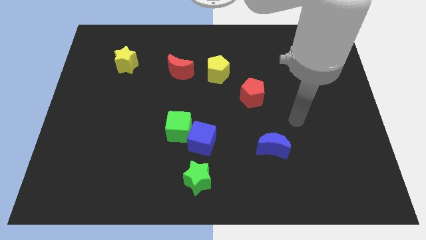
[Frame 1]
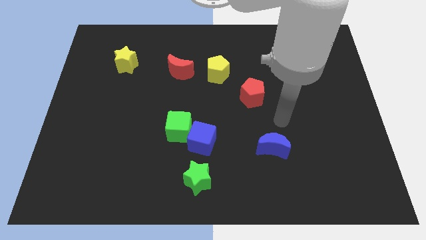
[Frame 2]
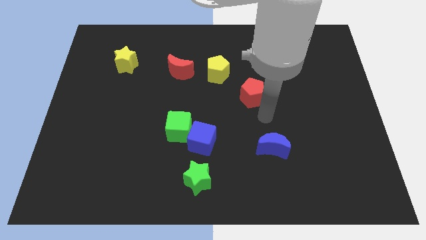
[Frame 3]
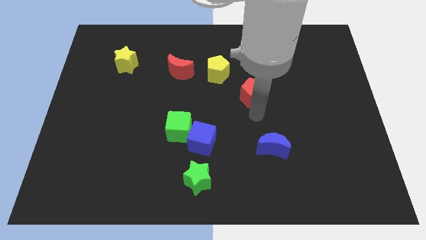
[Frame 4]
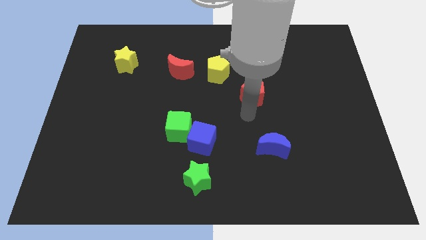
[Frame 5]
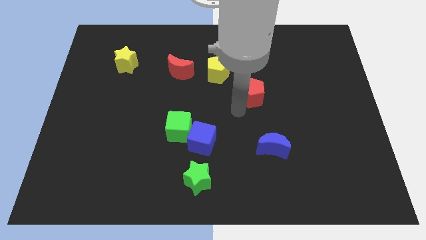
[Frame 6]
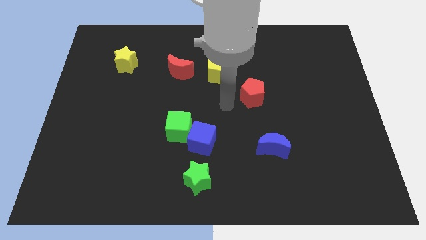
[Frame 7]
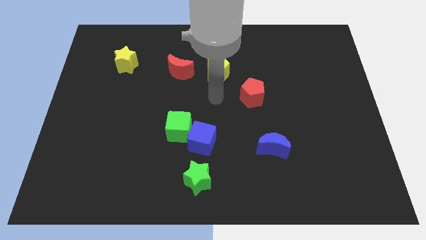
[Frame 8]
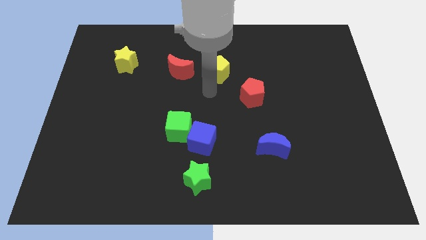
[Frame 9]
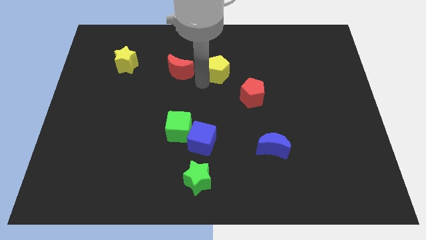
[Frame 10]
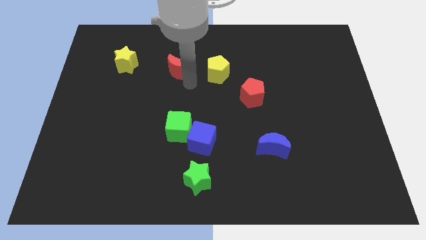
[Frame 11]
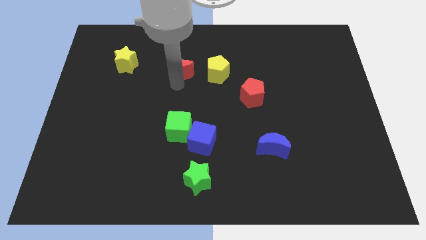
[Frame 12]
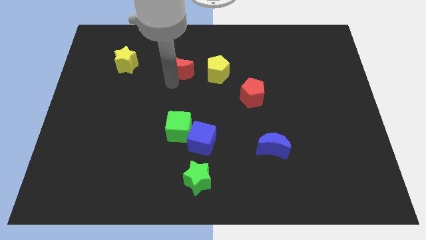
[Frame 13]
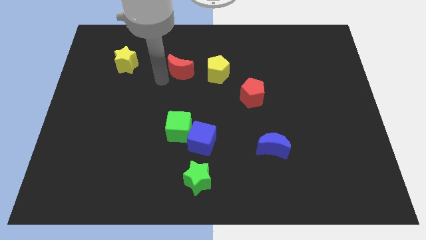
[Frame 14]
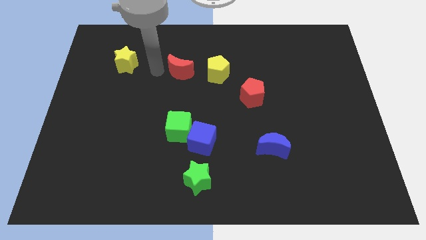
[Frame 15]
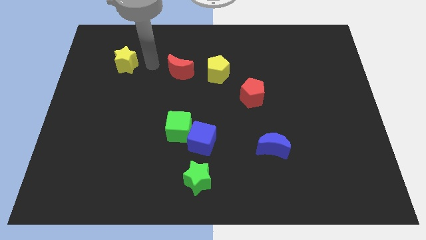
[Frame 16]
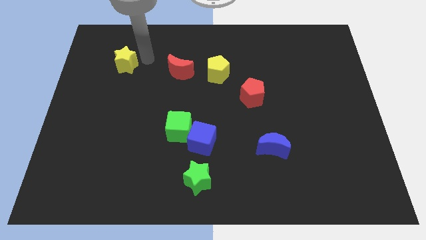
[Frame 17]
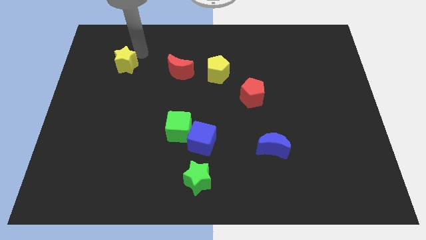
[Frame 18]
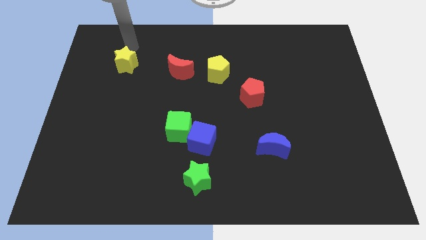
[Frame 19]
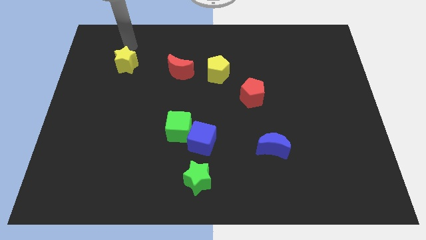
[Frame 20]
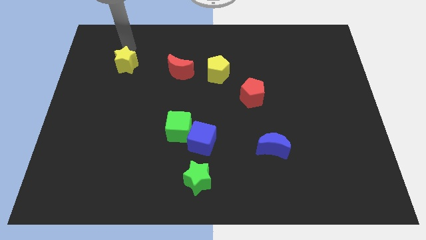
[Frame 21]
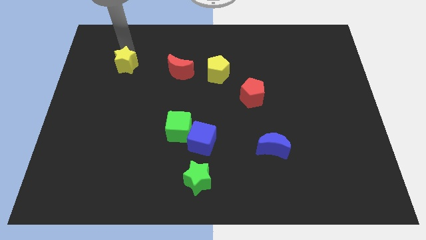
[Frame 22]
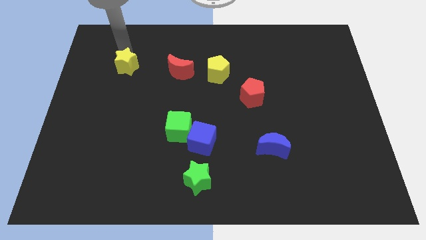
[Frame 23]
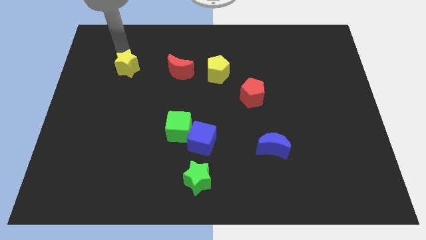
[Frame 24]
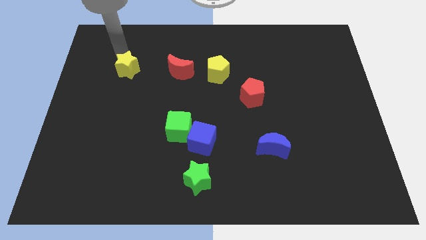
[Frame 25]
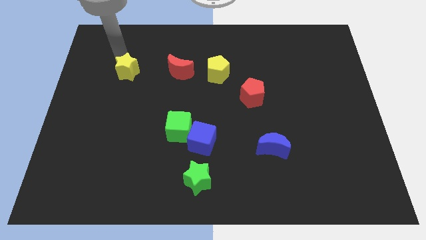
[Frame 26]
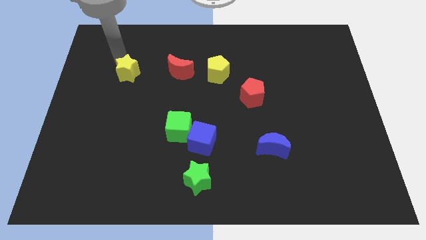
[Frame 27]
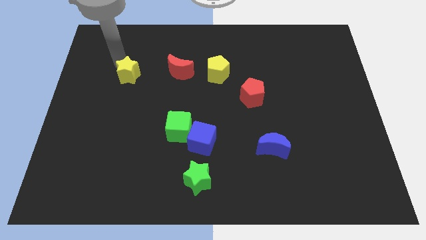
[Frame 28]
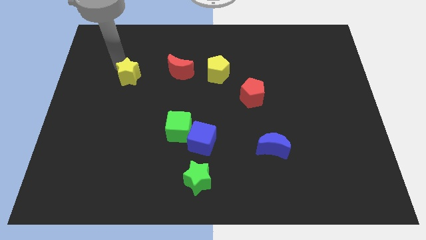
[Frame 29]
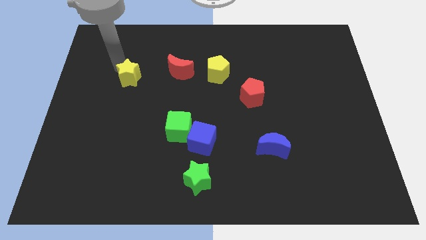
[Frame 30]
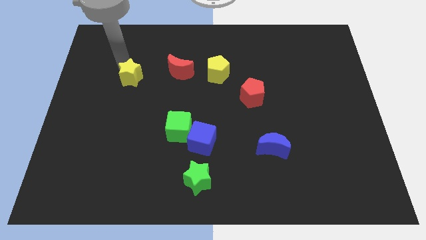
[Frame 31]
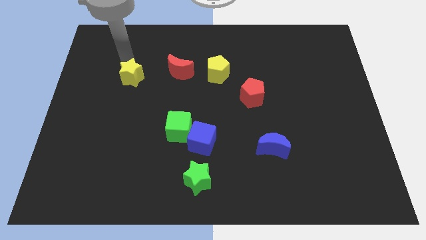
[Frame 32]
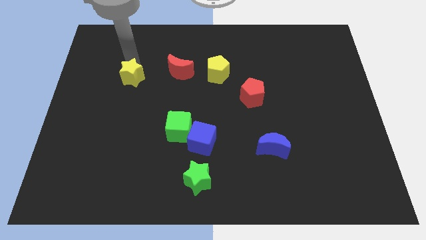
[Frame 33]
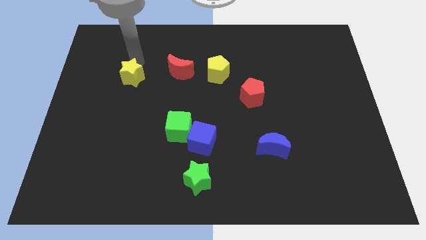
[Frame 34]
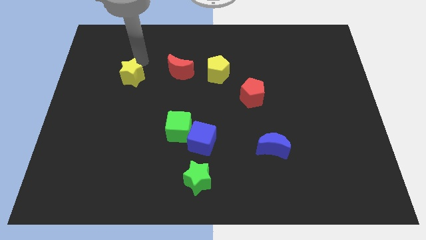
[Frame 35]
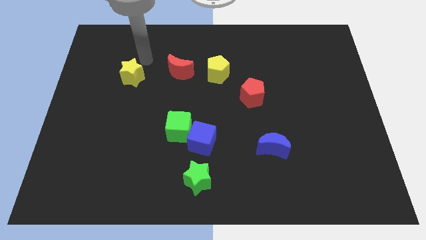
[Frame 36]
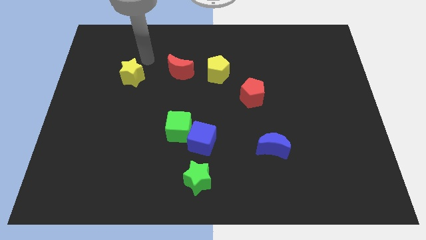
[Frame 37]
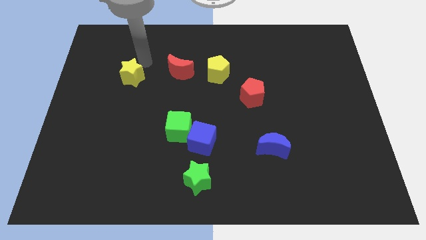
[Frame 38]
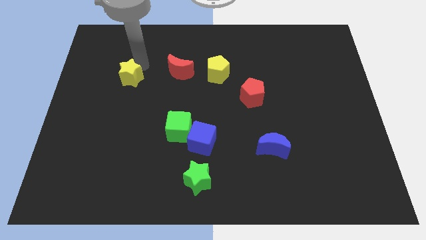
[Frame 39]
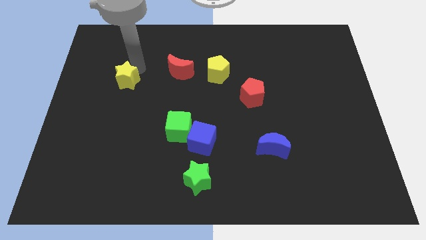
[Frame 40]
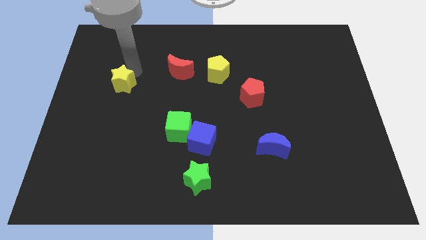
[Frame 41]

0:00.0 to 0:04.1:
slightly push the yellow star down

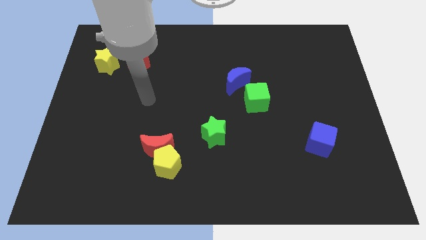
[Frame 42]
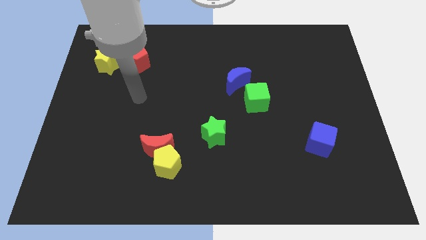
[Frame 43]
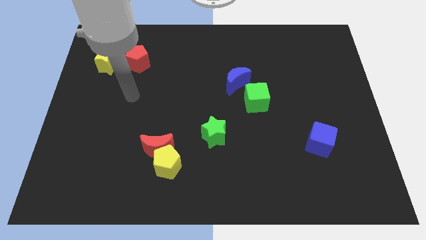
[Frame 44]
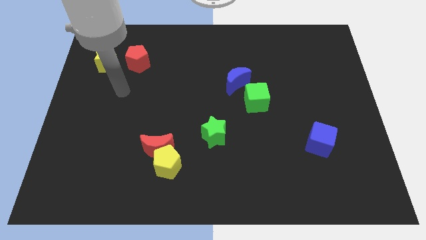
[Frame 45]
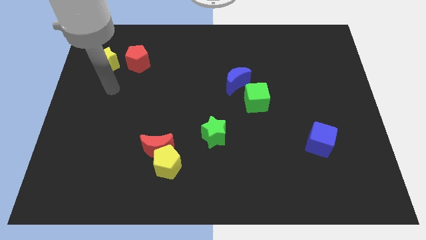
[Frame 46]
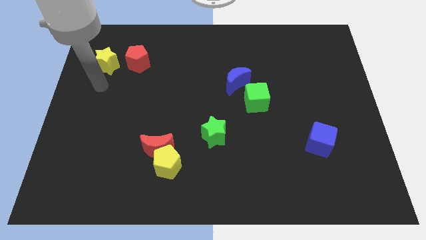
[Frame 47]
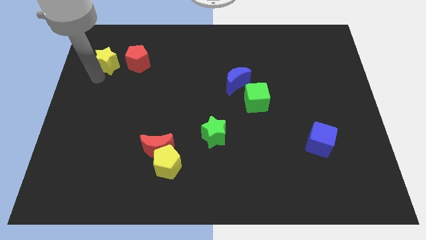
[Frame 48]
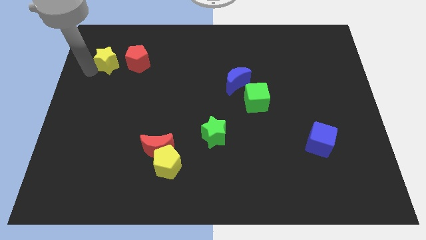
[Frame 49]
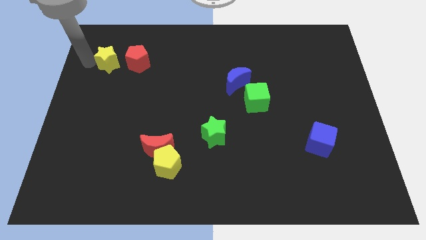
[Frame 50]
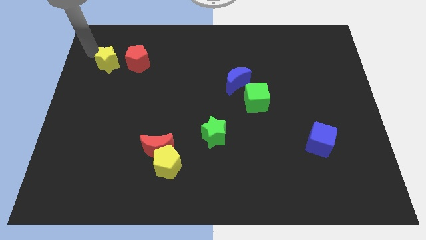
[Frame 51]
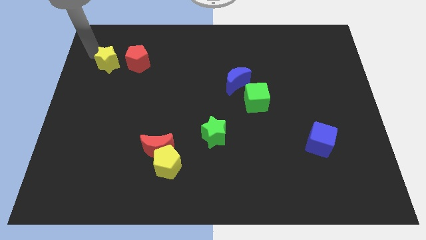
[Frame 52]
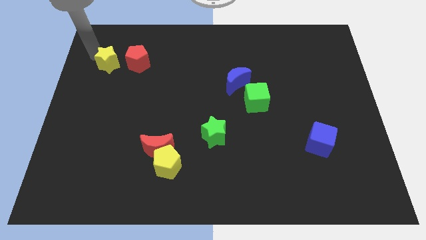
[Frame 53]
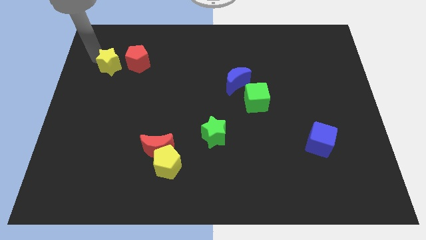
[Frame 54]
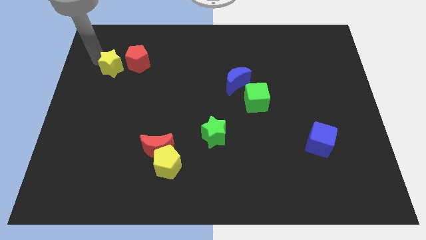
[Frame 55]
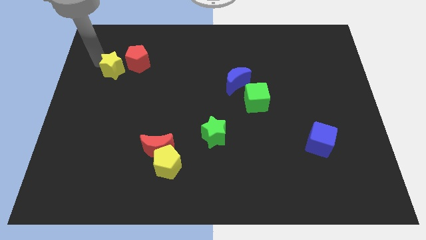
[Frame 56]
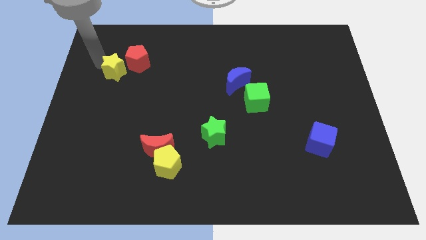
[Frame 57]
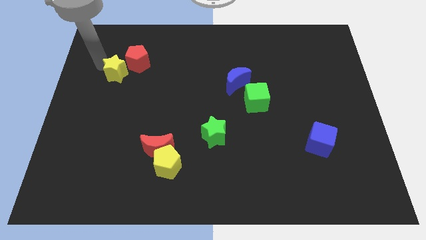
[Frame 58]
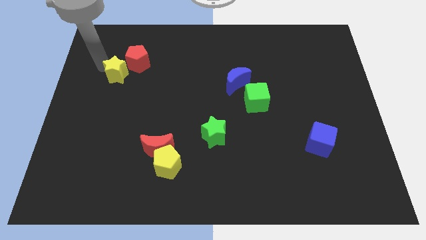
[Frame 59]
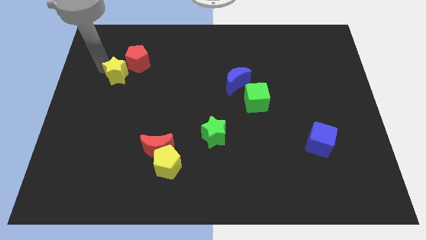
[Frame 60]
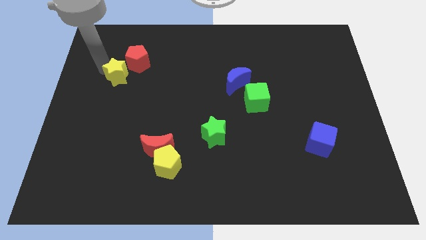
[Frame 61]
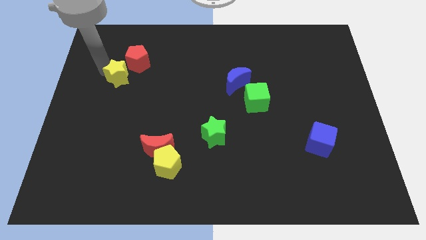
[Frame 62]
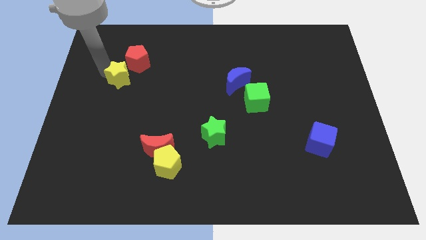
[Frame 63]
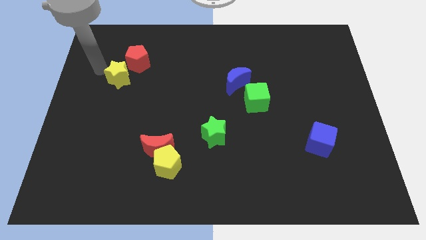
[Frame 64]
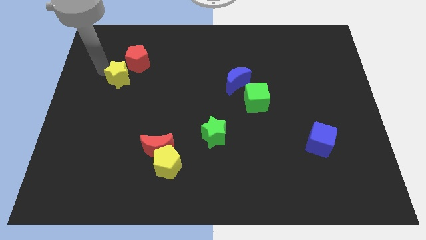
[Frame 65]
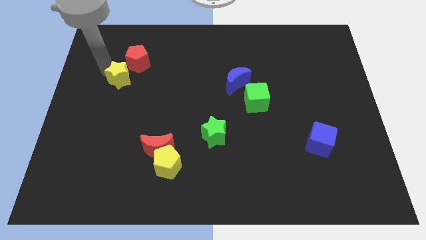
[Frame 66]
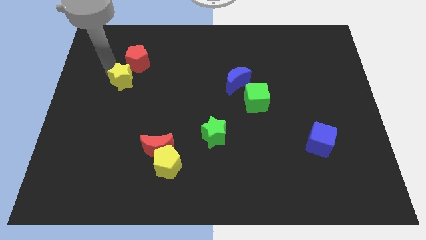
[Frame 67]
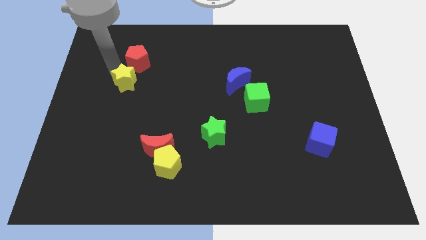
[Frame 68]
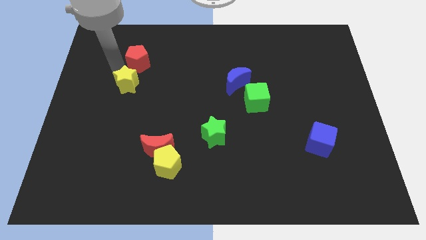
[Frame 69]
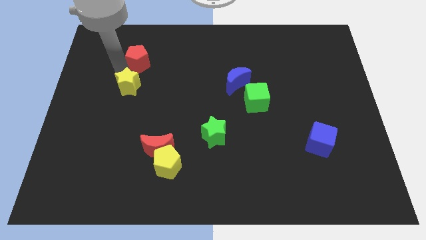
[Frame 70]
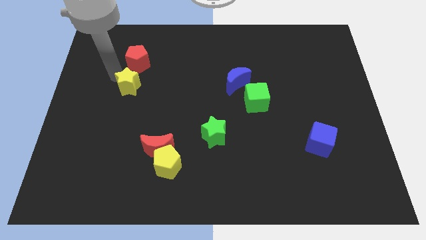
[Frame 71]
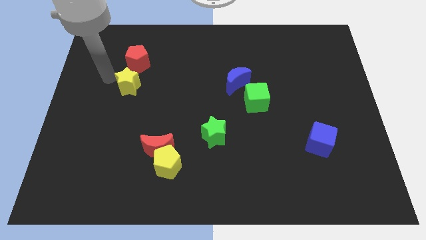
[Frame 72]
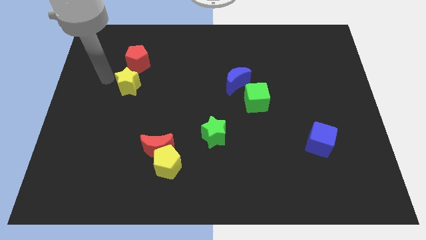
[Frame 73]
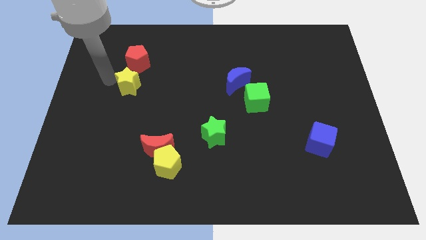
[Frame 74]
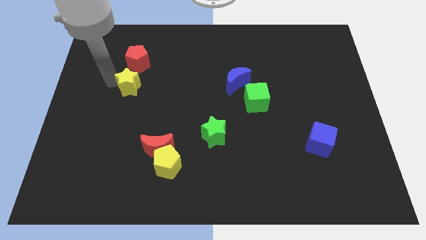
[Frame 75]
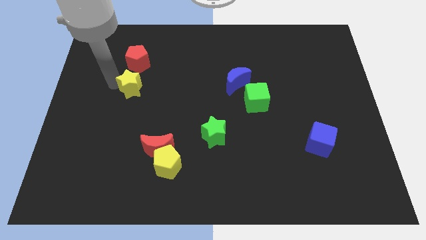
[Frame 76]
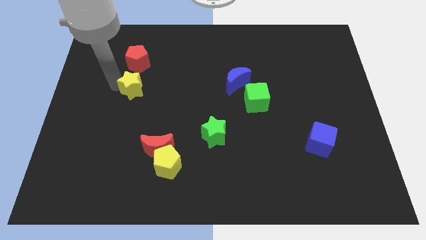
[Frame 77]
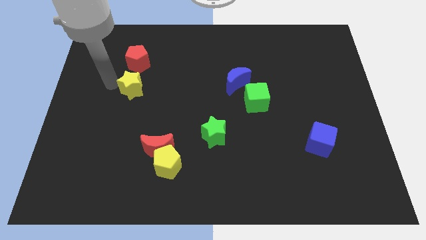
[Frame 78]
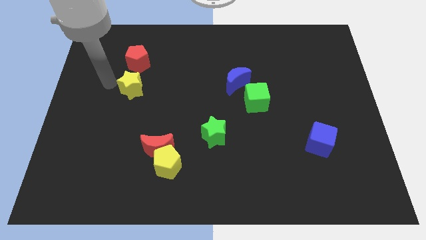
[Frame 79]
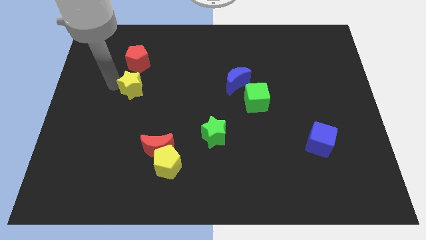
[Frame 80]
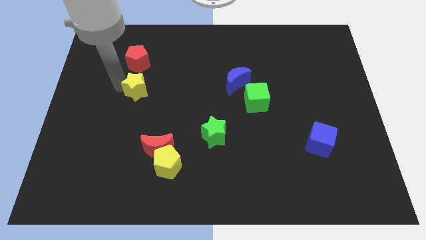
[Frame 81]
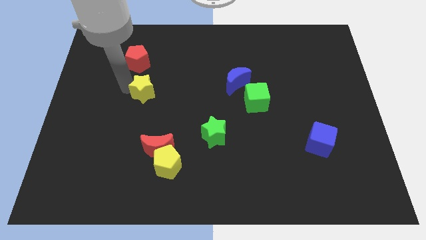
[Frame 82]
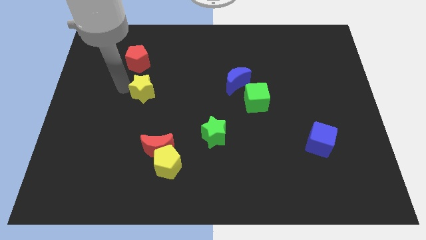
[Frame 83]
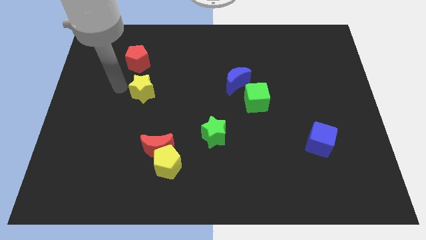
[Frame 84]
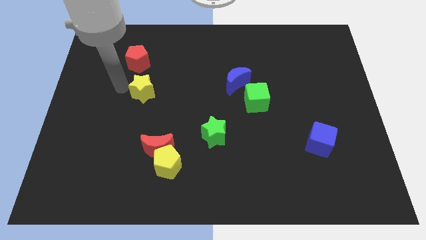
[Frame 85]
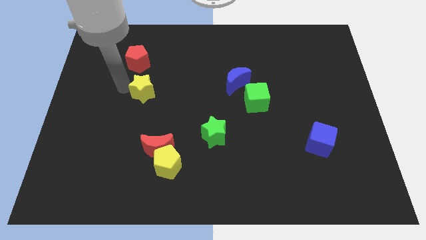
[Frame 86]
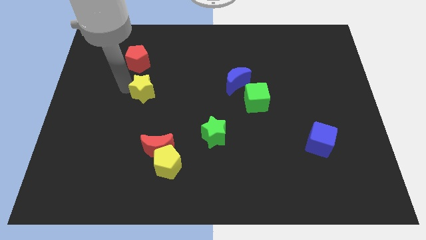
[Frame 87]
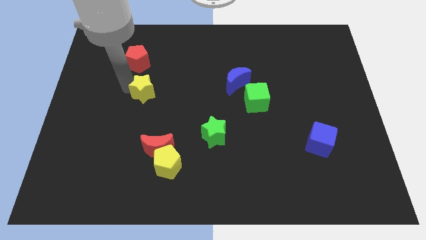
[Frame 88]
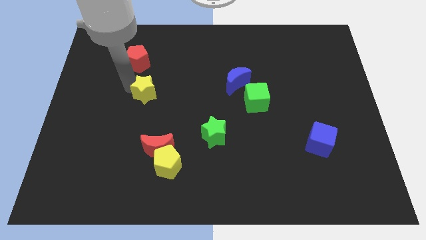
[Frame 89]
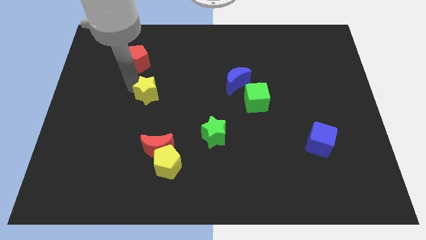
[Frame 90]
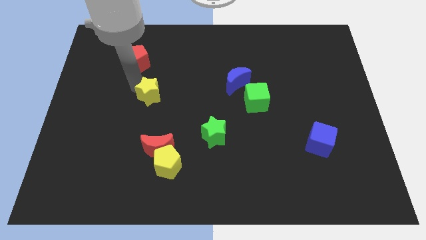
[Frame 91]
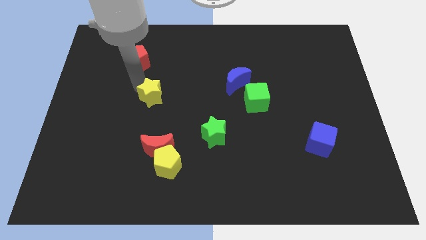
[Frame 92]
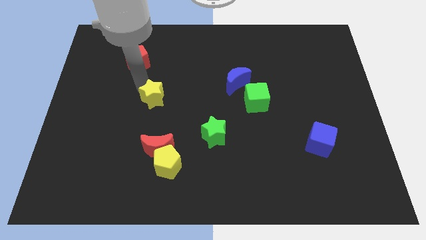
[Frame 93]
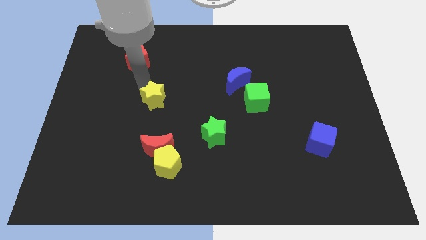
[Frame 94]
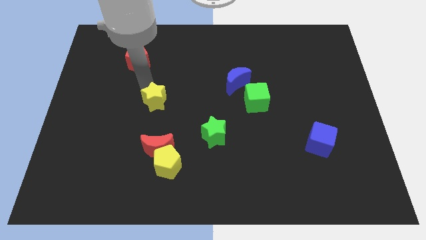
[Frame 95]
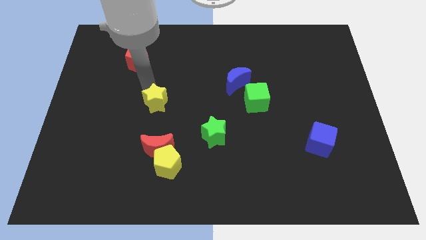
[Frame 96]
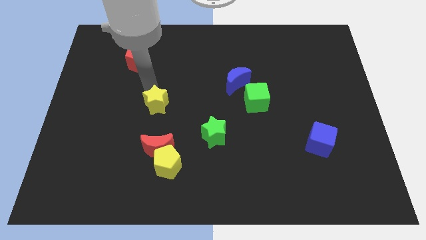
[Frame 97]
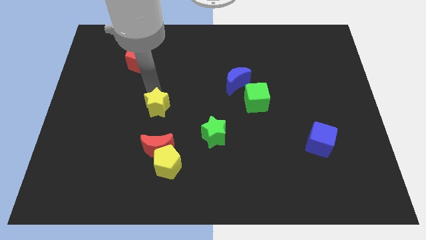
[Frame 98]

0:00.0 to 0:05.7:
move the yellow star diagonally down and to the right
